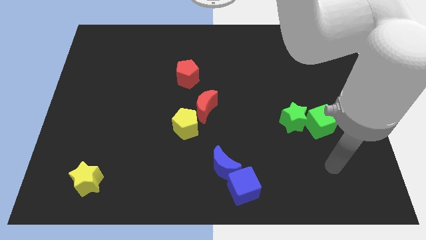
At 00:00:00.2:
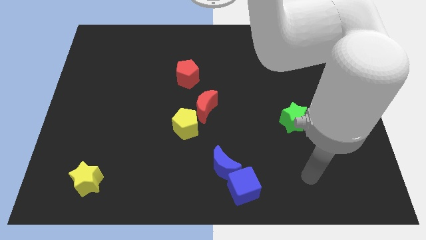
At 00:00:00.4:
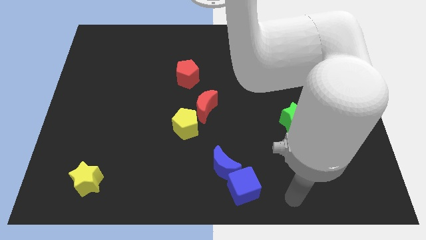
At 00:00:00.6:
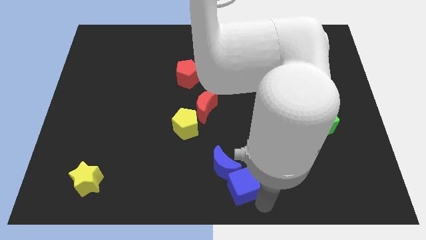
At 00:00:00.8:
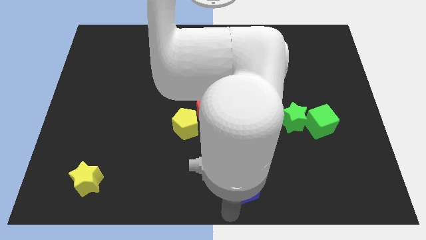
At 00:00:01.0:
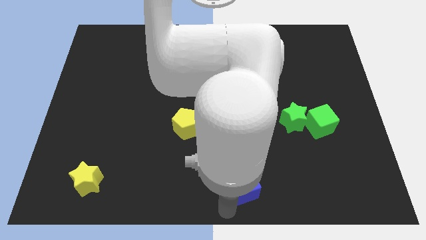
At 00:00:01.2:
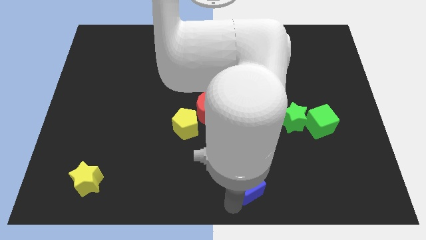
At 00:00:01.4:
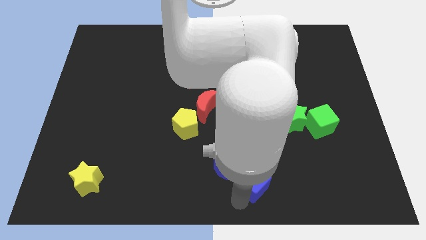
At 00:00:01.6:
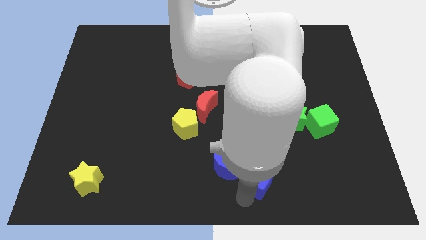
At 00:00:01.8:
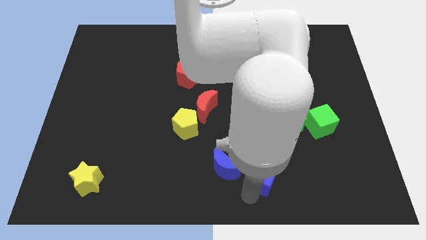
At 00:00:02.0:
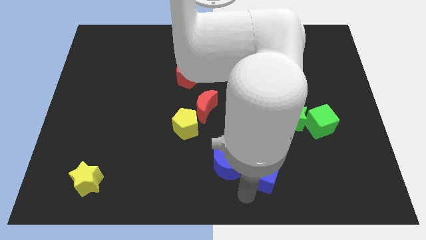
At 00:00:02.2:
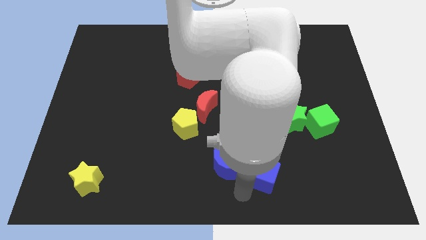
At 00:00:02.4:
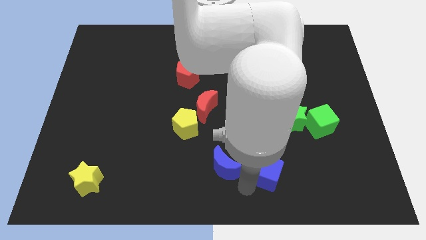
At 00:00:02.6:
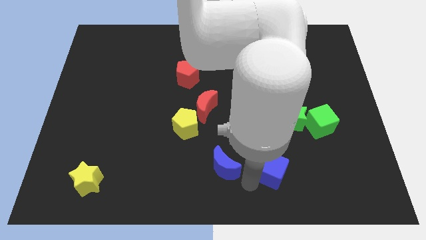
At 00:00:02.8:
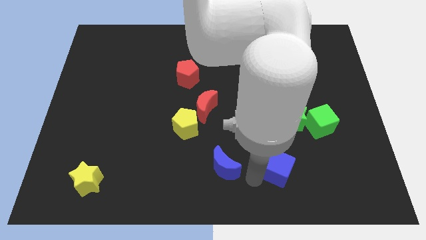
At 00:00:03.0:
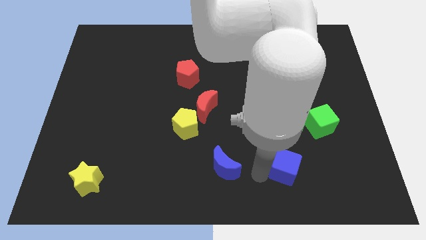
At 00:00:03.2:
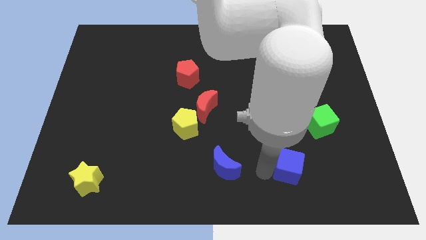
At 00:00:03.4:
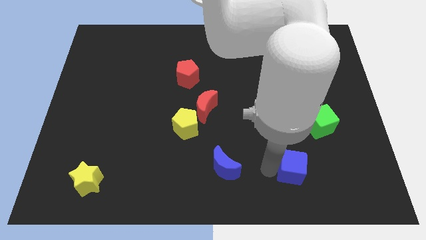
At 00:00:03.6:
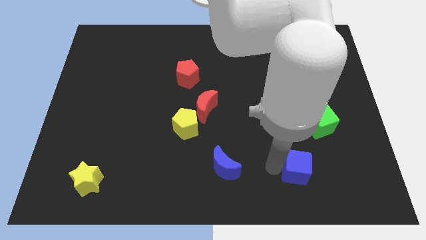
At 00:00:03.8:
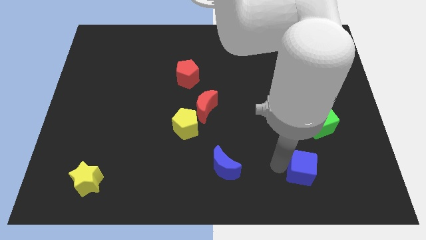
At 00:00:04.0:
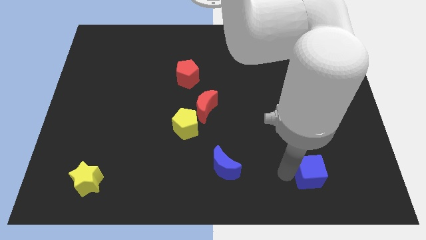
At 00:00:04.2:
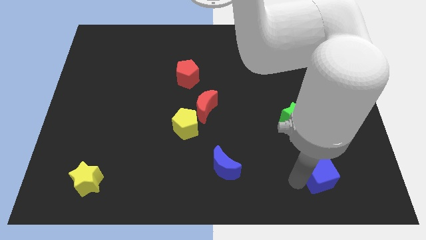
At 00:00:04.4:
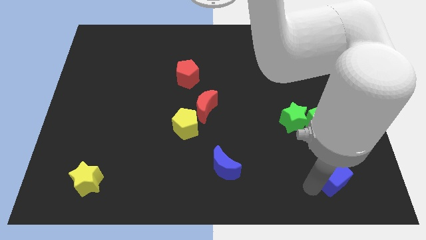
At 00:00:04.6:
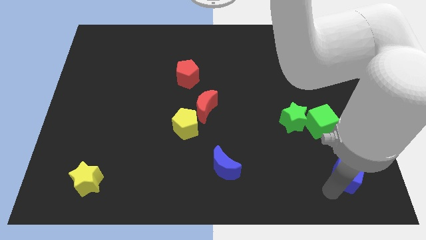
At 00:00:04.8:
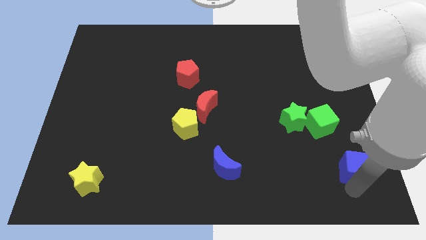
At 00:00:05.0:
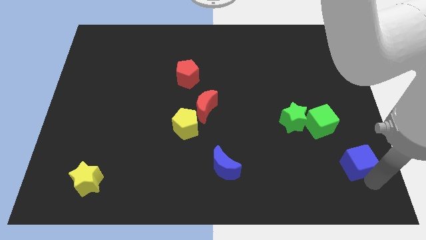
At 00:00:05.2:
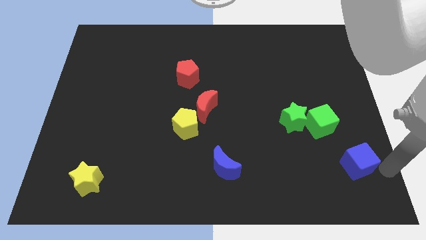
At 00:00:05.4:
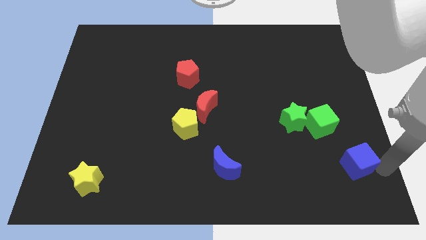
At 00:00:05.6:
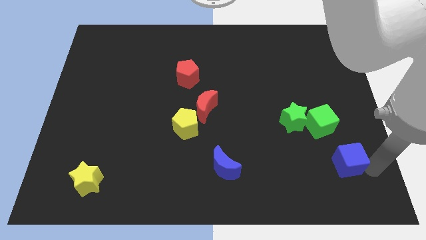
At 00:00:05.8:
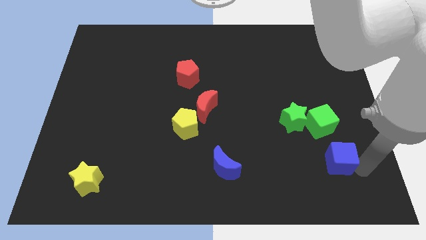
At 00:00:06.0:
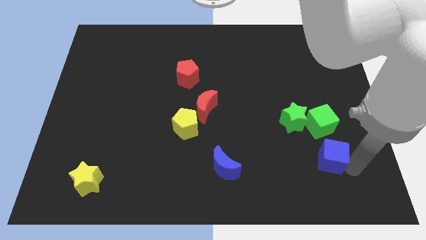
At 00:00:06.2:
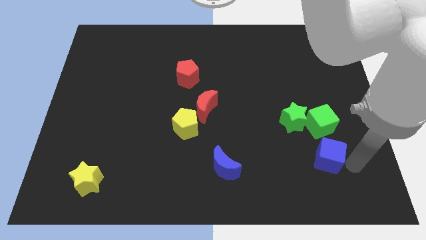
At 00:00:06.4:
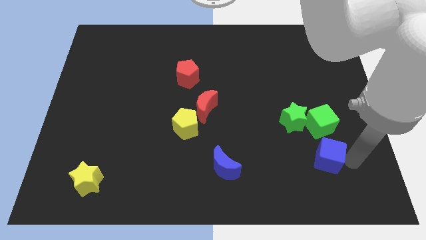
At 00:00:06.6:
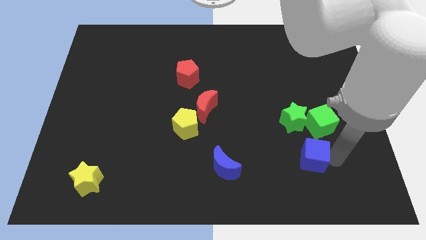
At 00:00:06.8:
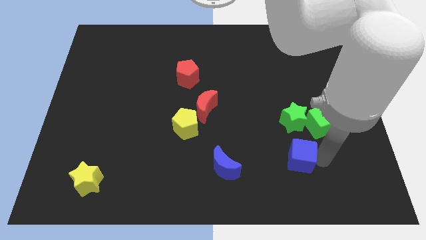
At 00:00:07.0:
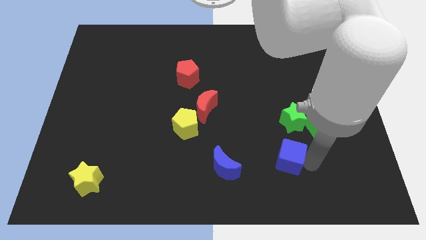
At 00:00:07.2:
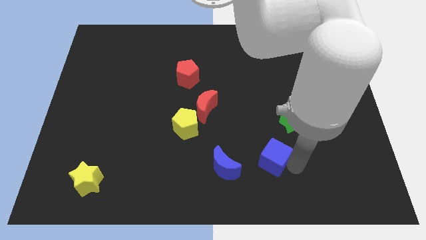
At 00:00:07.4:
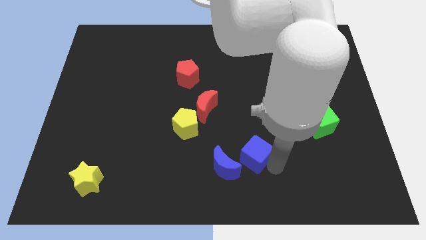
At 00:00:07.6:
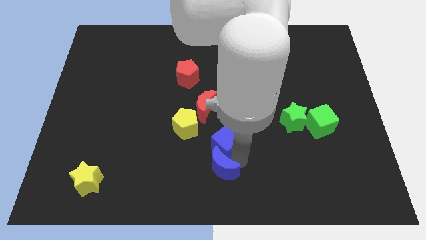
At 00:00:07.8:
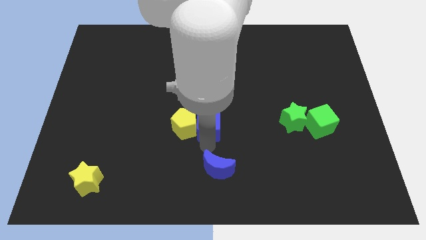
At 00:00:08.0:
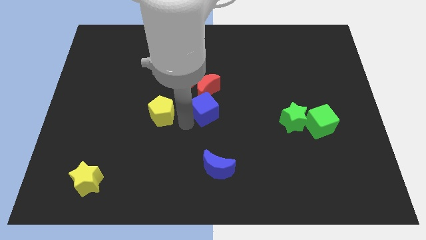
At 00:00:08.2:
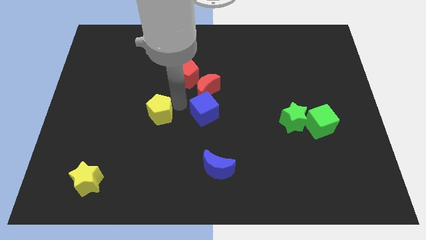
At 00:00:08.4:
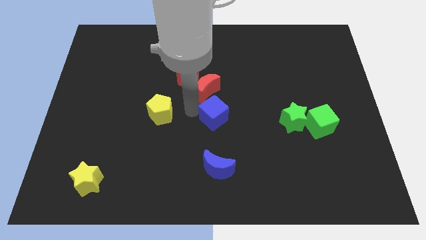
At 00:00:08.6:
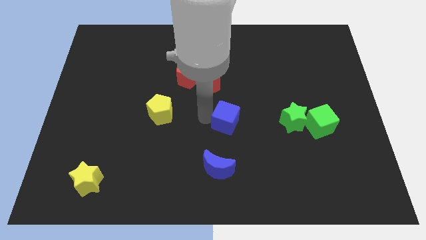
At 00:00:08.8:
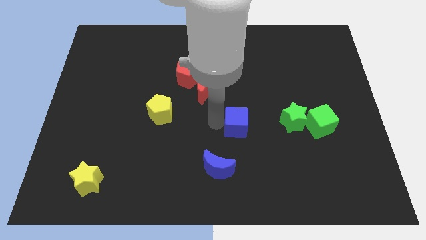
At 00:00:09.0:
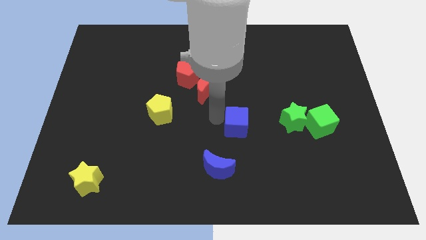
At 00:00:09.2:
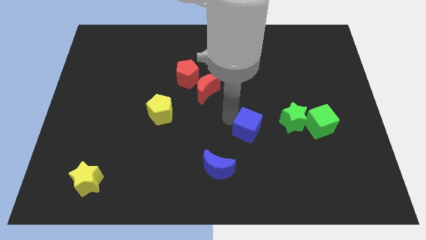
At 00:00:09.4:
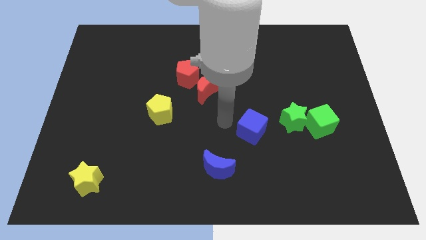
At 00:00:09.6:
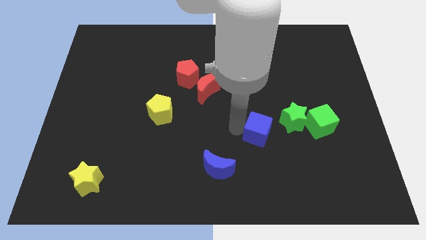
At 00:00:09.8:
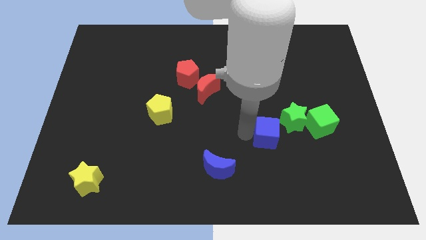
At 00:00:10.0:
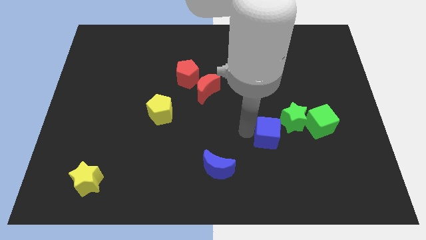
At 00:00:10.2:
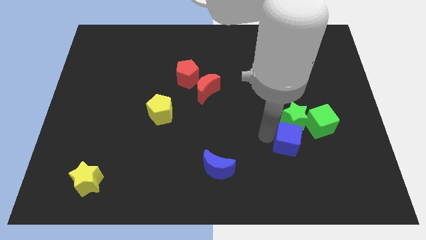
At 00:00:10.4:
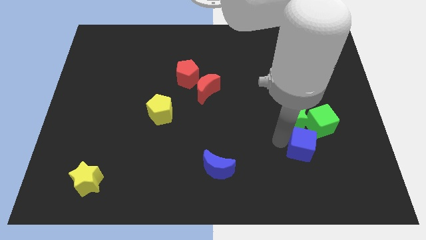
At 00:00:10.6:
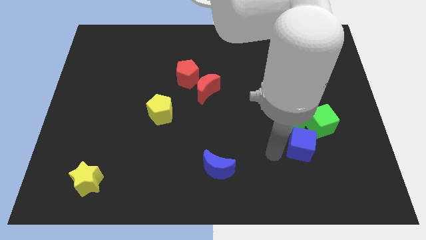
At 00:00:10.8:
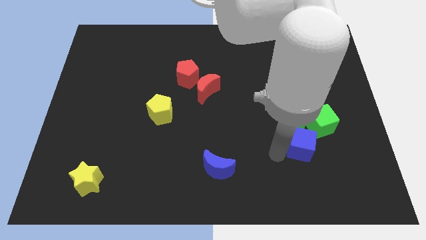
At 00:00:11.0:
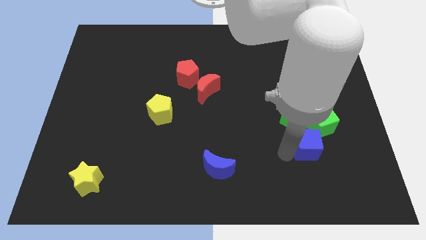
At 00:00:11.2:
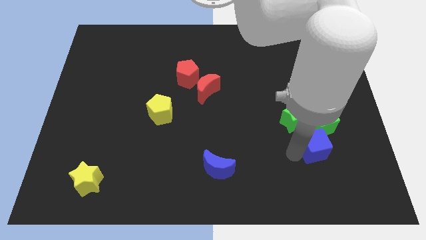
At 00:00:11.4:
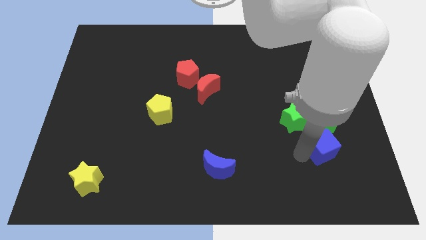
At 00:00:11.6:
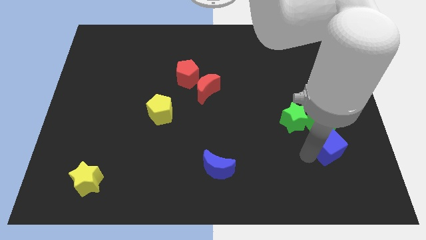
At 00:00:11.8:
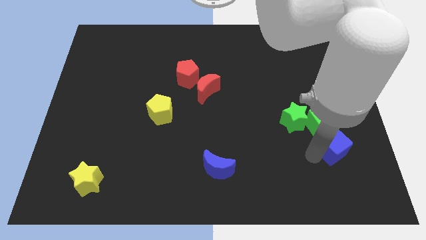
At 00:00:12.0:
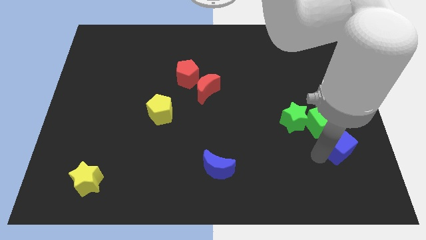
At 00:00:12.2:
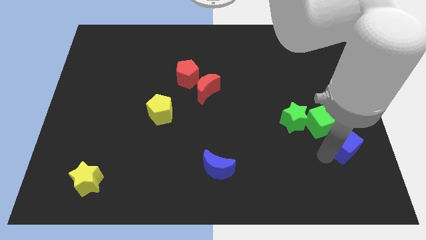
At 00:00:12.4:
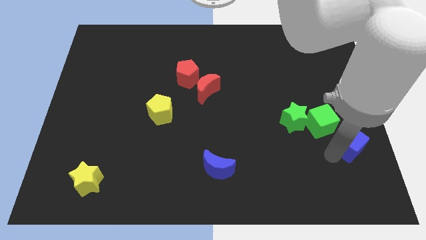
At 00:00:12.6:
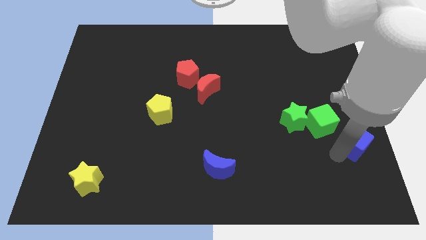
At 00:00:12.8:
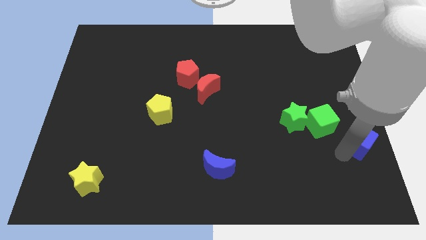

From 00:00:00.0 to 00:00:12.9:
slide the blue cube to the right side of the board
